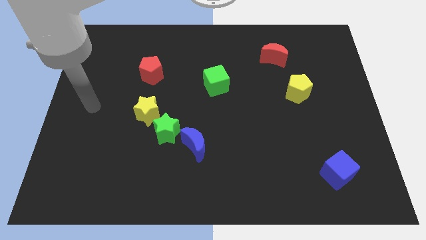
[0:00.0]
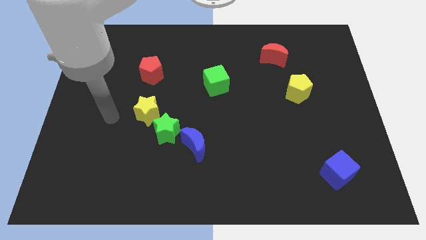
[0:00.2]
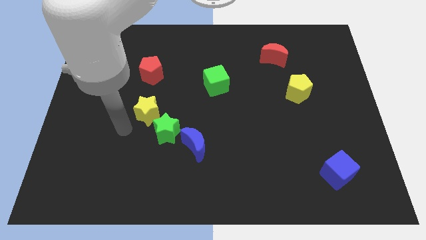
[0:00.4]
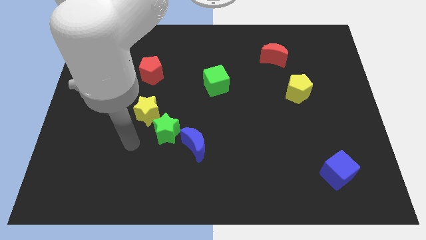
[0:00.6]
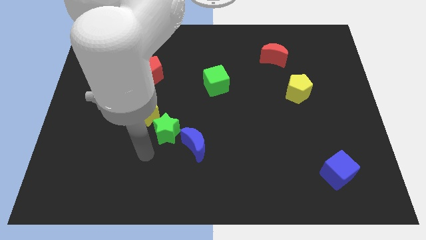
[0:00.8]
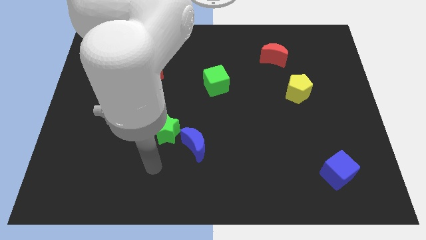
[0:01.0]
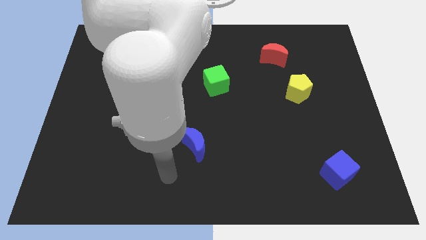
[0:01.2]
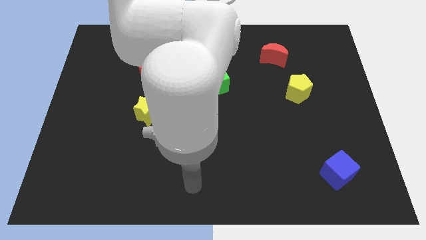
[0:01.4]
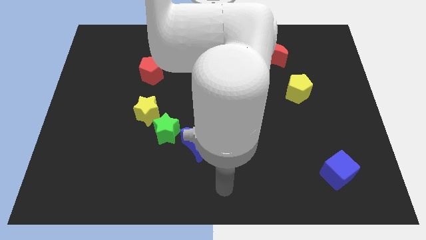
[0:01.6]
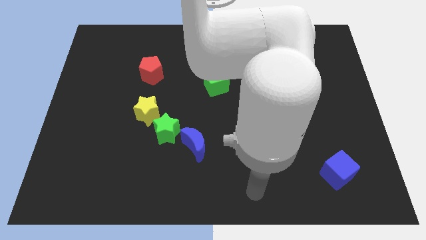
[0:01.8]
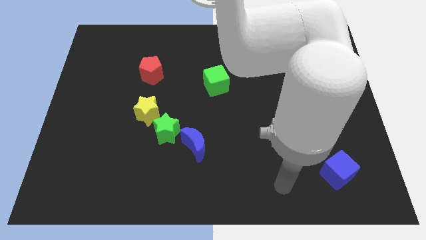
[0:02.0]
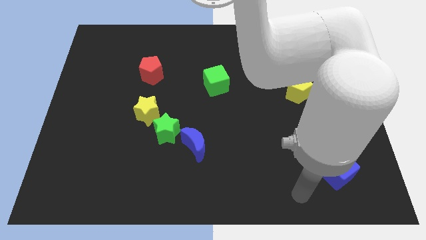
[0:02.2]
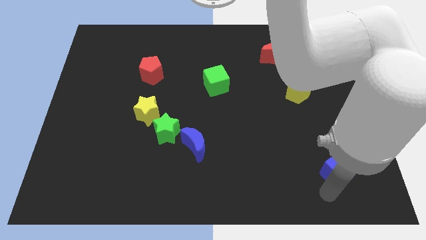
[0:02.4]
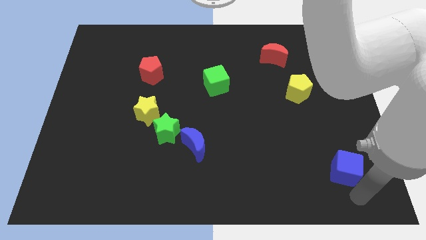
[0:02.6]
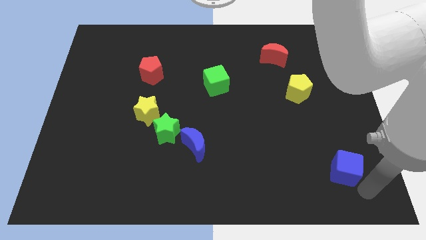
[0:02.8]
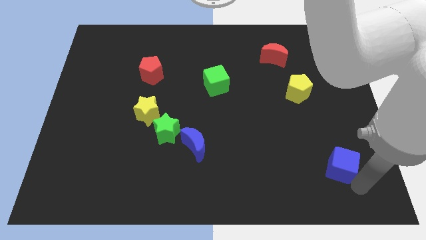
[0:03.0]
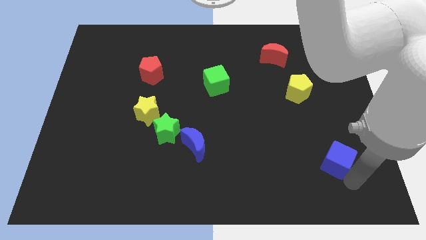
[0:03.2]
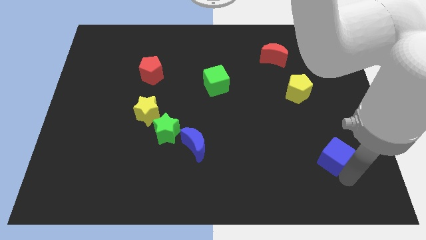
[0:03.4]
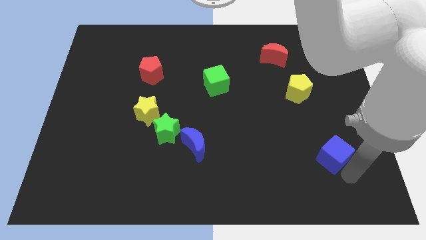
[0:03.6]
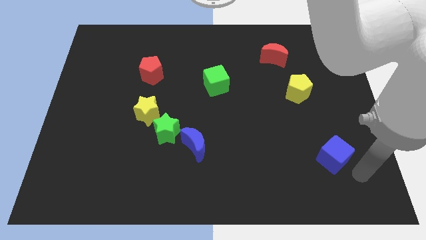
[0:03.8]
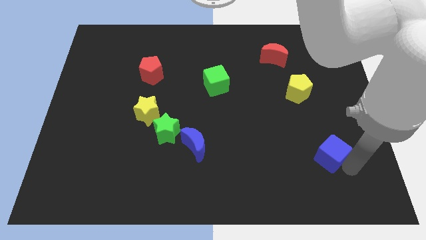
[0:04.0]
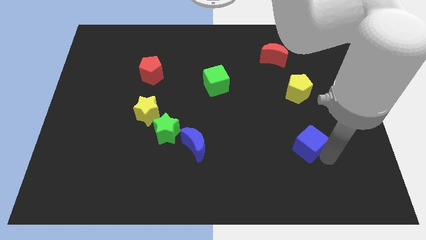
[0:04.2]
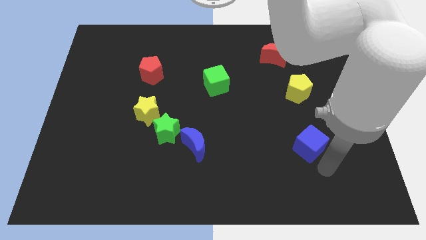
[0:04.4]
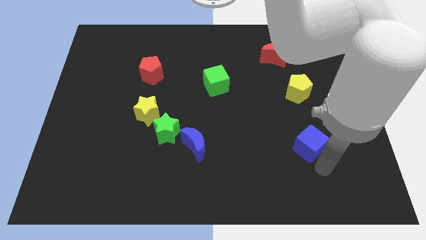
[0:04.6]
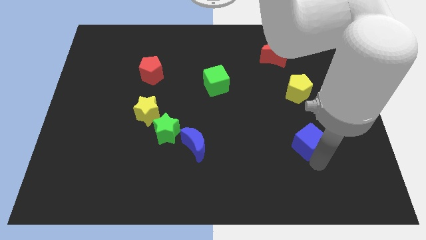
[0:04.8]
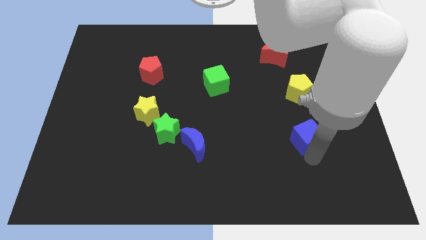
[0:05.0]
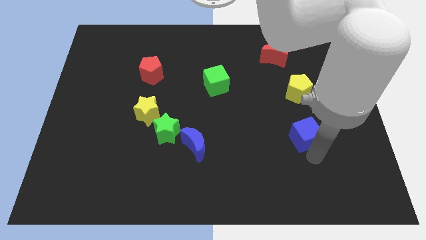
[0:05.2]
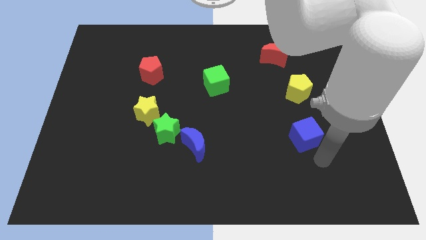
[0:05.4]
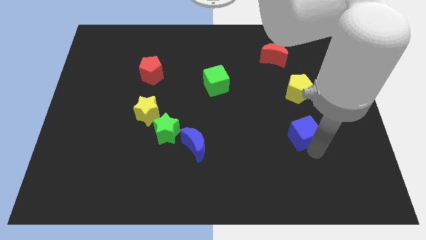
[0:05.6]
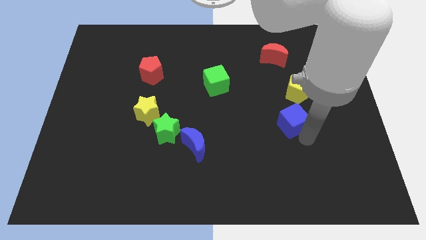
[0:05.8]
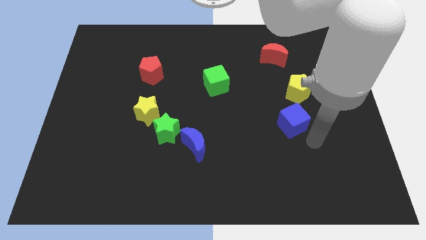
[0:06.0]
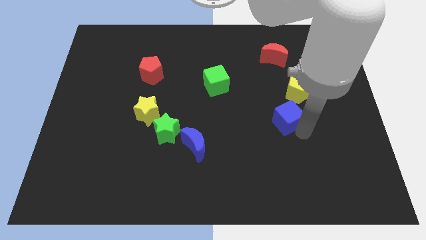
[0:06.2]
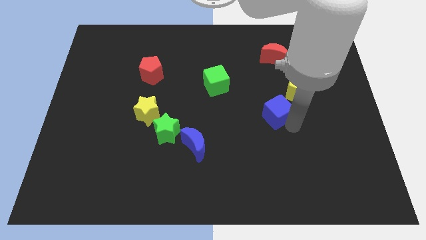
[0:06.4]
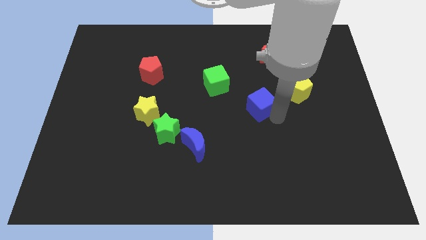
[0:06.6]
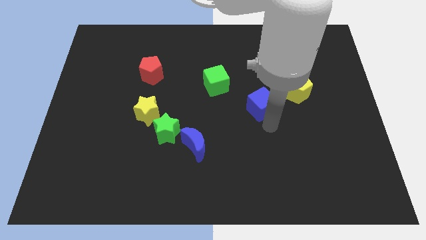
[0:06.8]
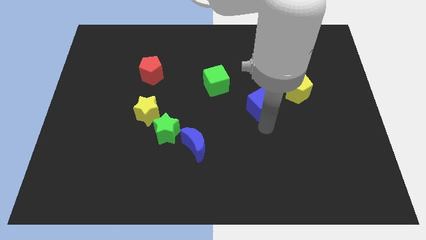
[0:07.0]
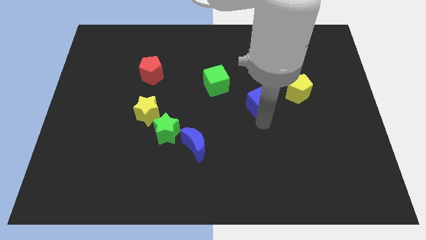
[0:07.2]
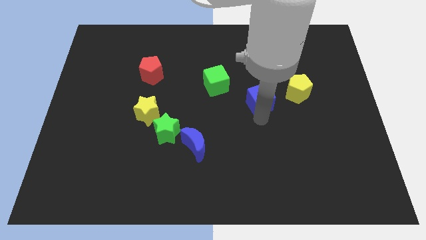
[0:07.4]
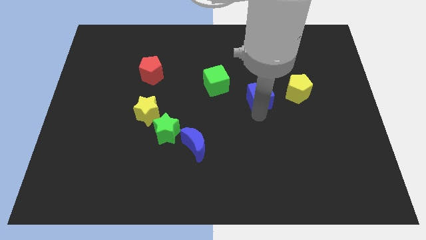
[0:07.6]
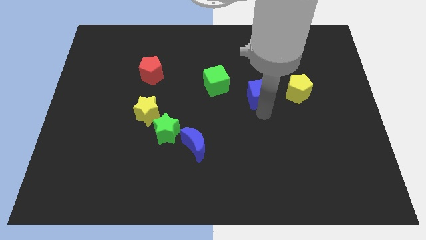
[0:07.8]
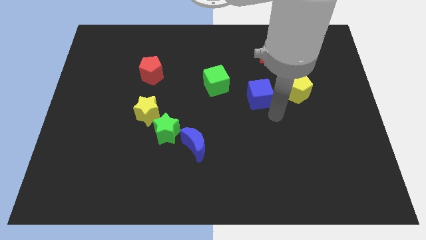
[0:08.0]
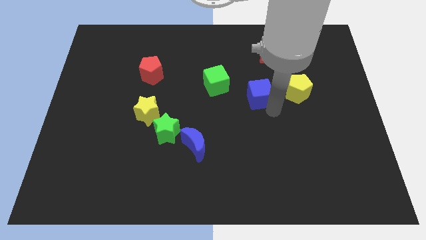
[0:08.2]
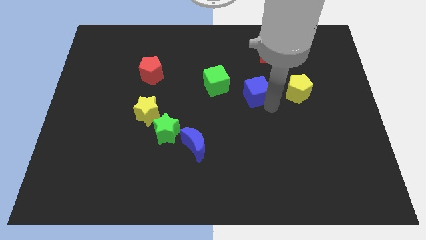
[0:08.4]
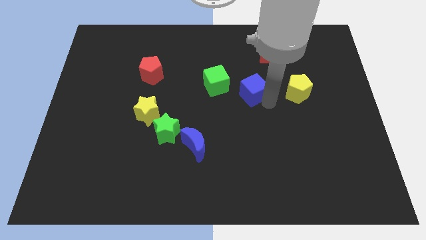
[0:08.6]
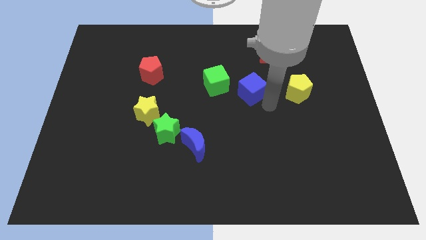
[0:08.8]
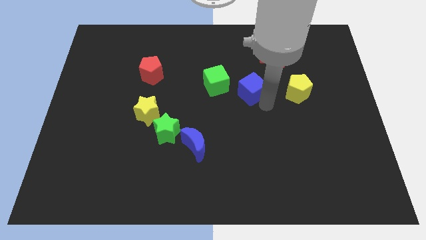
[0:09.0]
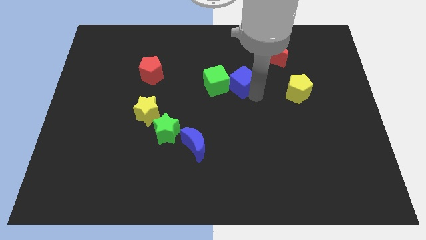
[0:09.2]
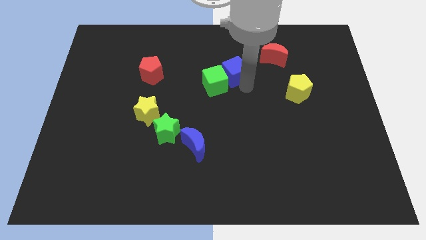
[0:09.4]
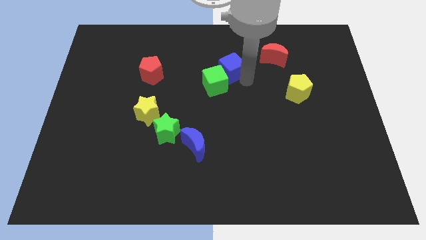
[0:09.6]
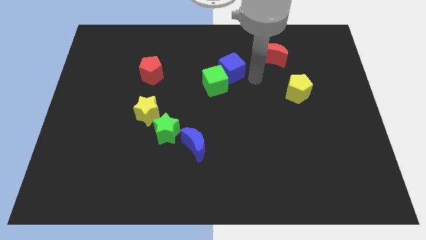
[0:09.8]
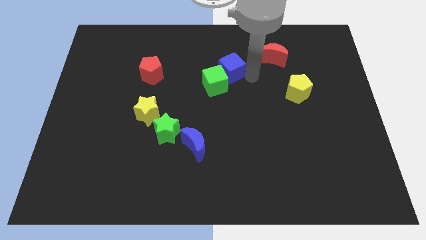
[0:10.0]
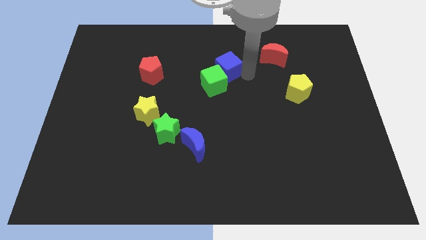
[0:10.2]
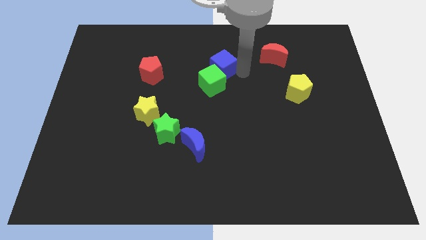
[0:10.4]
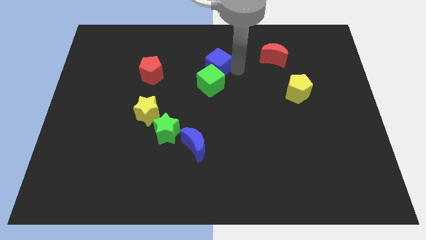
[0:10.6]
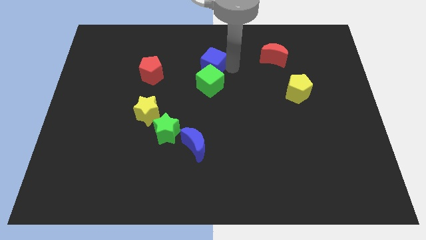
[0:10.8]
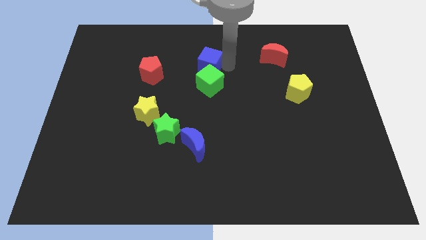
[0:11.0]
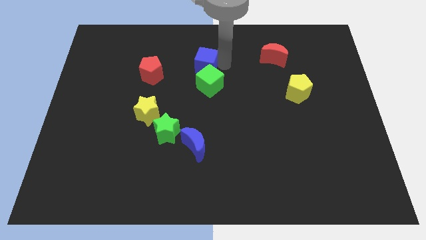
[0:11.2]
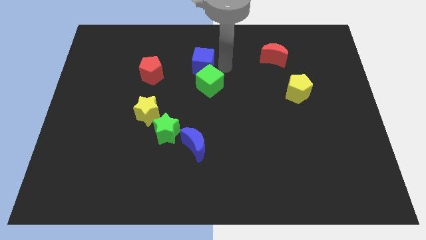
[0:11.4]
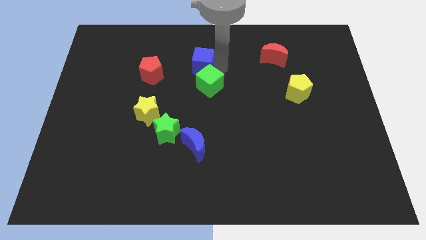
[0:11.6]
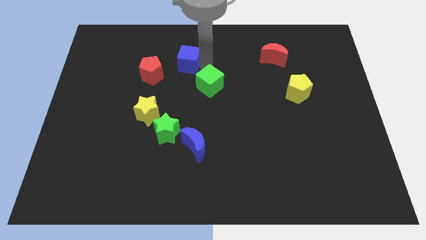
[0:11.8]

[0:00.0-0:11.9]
push the blue cube diagonally up and to the right of the red pentagon

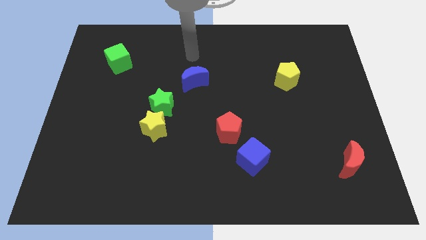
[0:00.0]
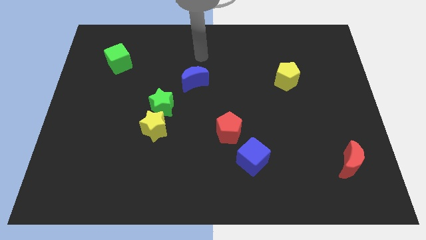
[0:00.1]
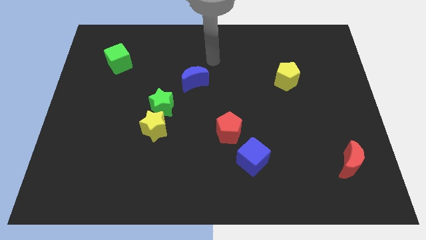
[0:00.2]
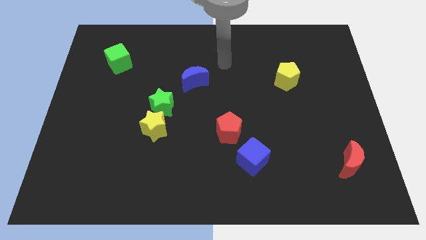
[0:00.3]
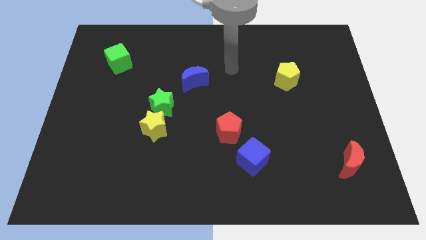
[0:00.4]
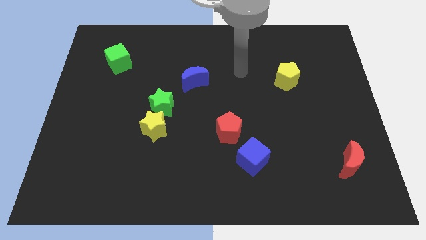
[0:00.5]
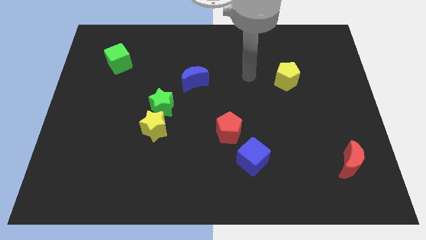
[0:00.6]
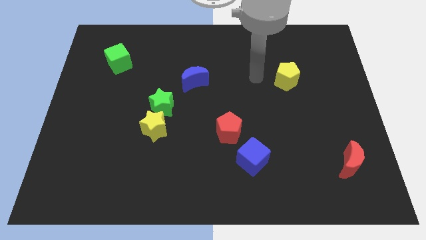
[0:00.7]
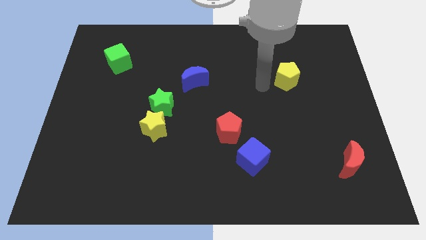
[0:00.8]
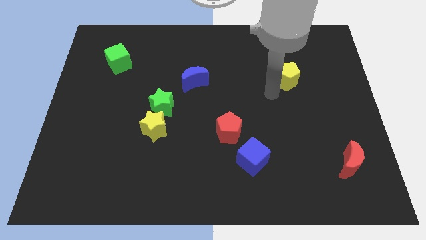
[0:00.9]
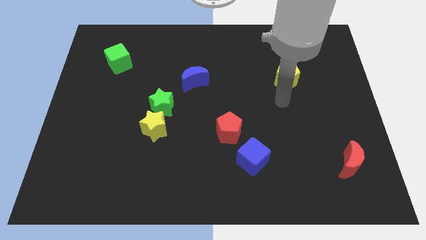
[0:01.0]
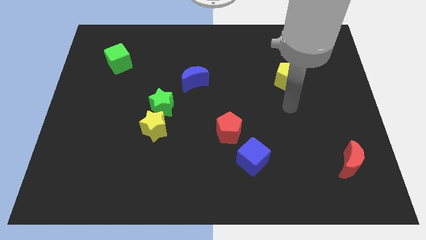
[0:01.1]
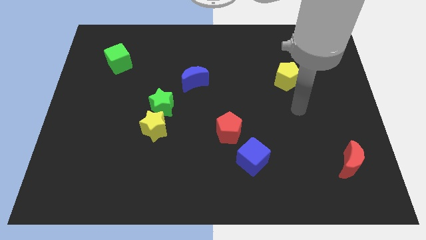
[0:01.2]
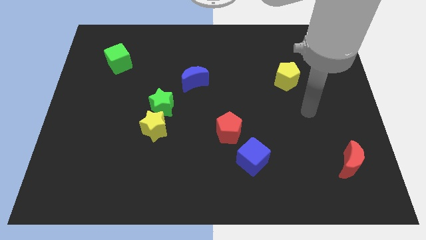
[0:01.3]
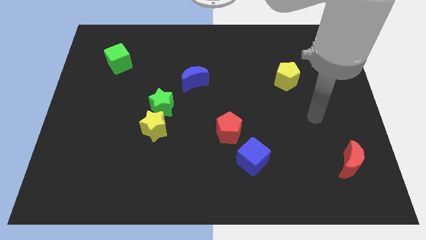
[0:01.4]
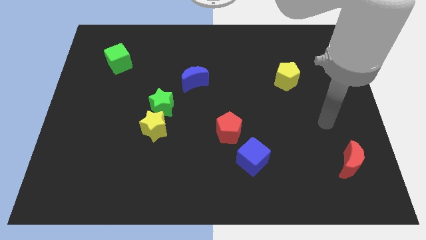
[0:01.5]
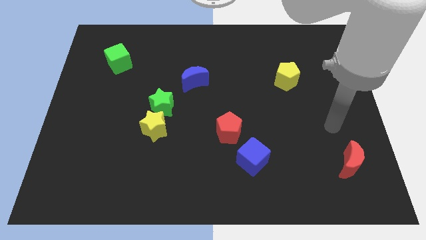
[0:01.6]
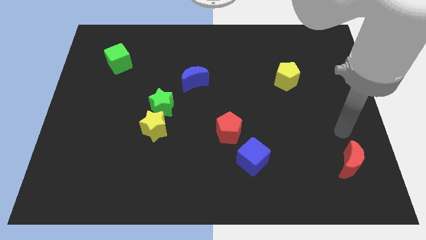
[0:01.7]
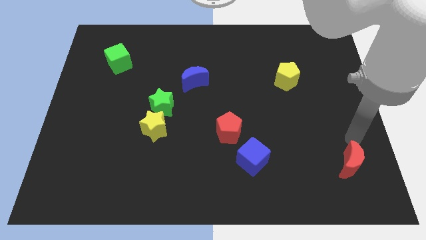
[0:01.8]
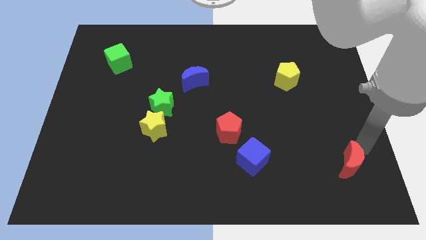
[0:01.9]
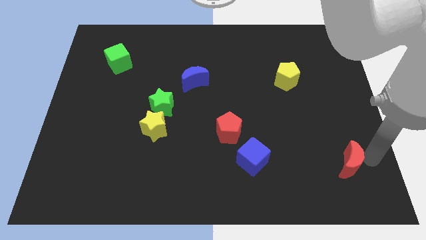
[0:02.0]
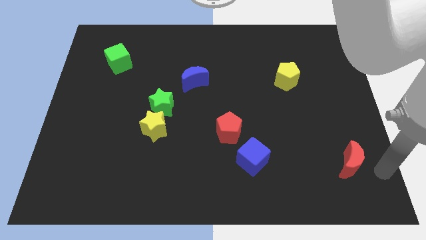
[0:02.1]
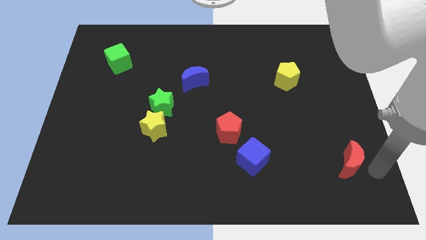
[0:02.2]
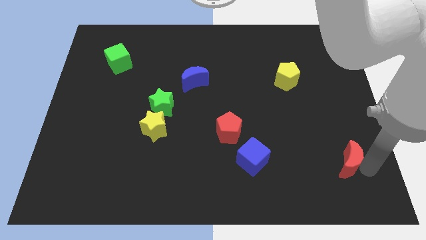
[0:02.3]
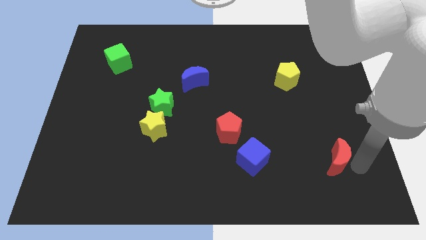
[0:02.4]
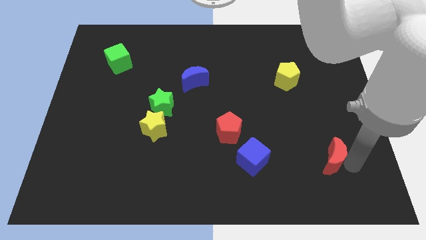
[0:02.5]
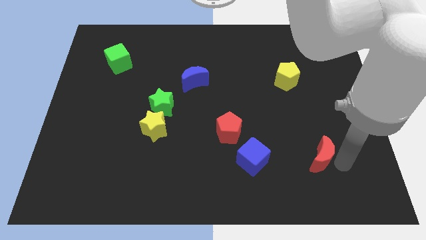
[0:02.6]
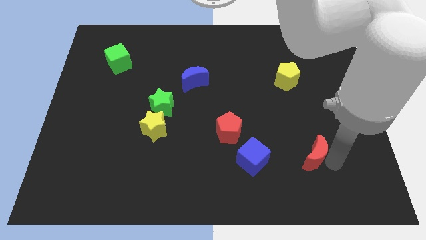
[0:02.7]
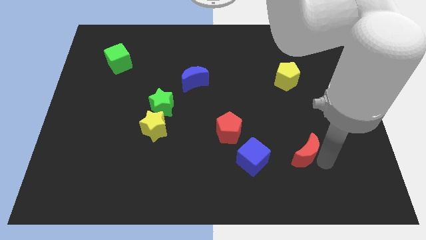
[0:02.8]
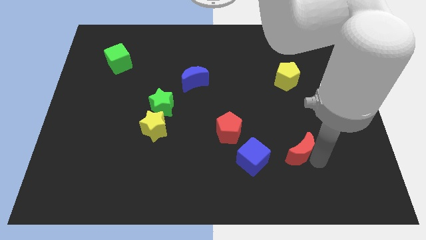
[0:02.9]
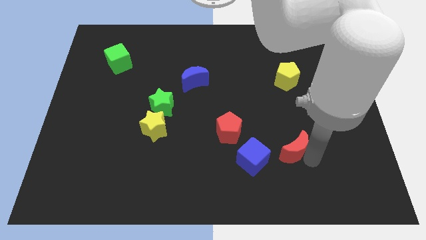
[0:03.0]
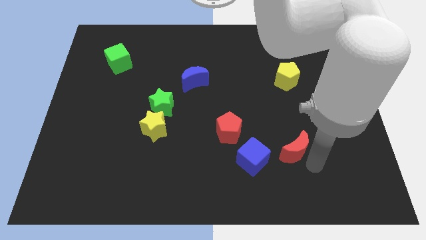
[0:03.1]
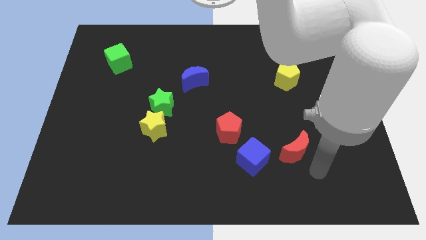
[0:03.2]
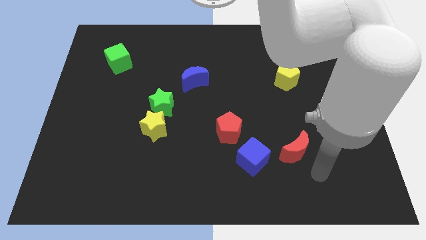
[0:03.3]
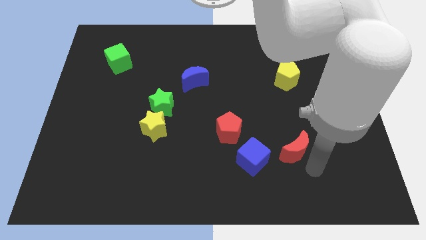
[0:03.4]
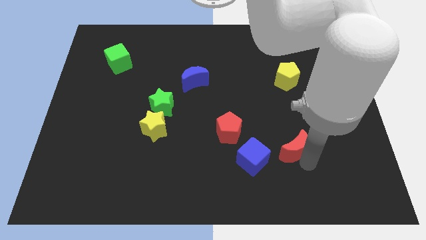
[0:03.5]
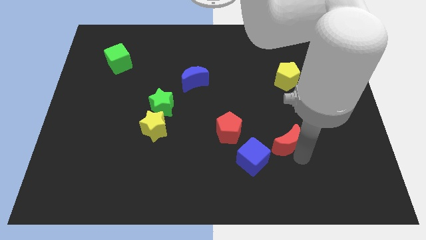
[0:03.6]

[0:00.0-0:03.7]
slide the red moon to the right of the red pentagon
